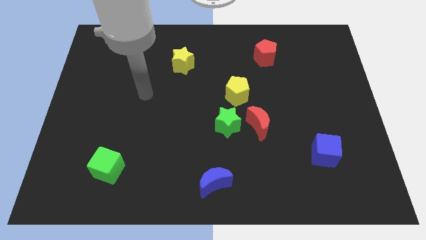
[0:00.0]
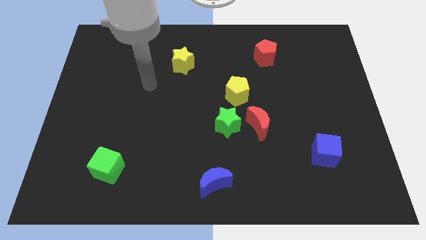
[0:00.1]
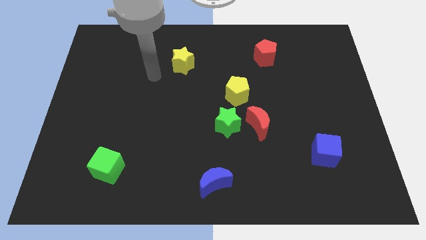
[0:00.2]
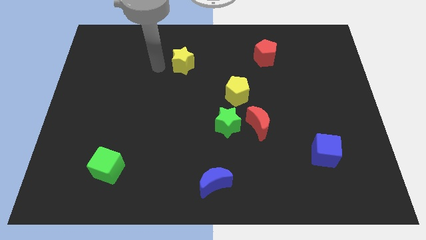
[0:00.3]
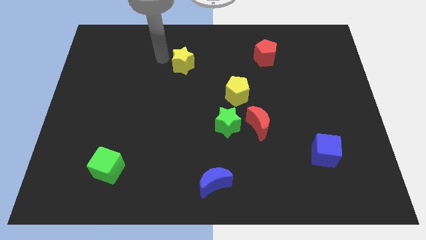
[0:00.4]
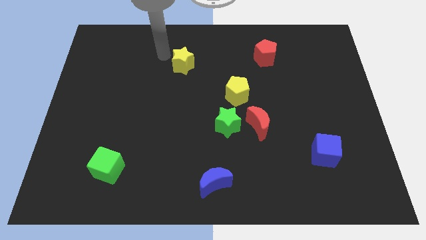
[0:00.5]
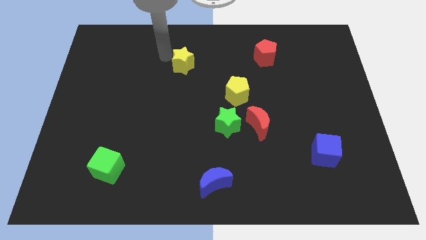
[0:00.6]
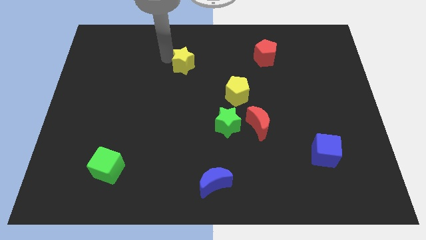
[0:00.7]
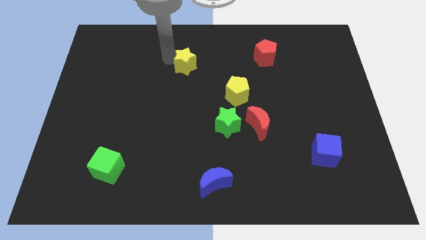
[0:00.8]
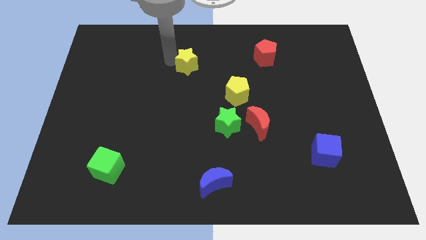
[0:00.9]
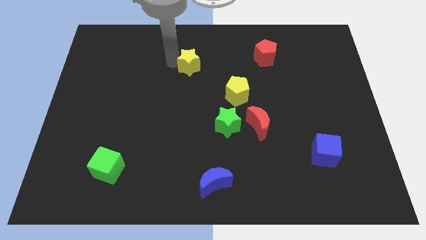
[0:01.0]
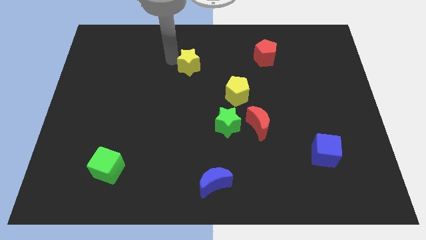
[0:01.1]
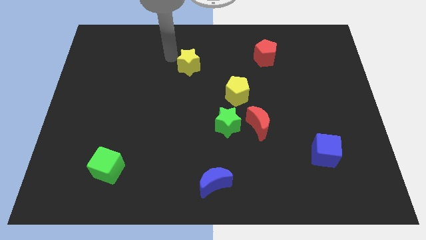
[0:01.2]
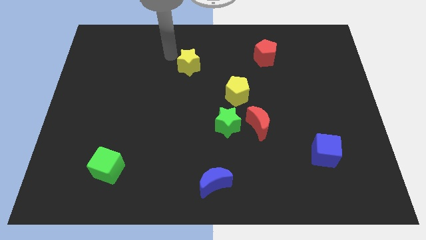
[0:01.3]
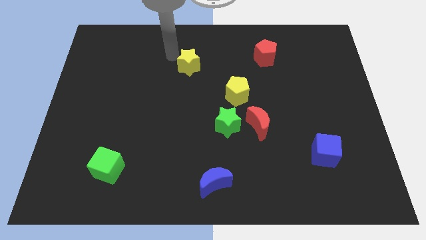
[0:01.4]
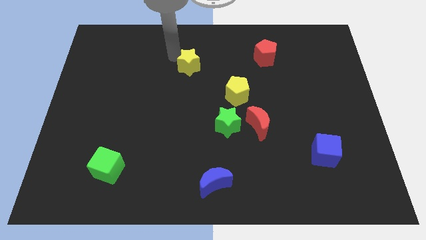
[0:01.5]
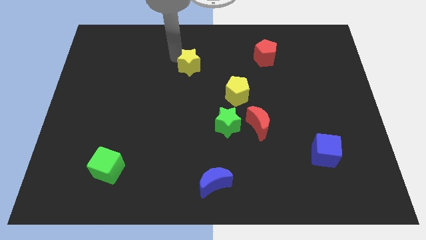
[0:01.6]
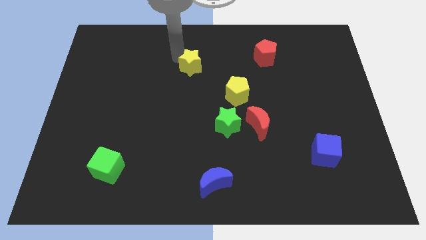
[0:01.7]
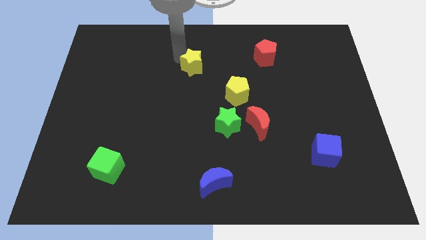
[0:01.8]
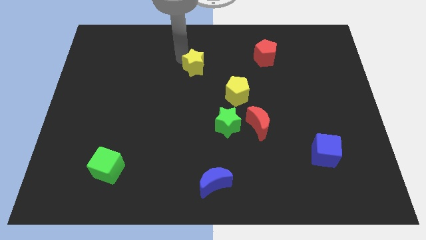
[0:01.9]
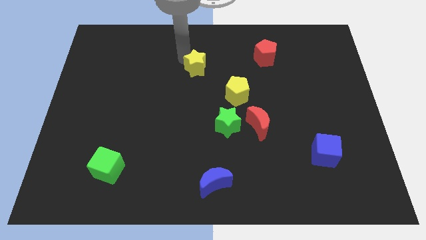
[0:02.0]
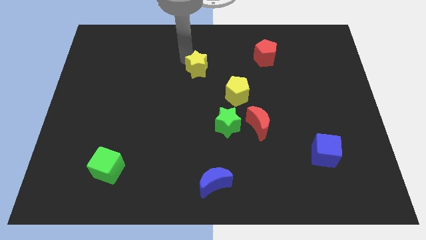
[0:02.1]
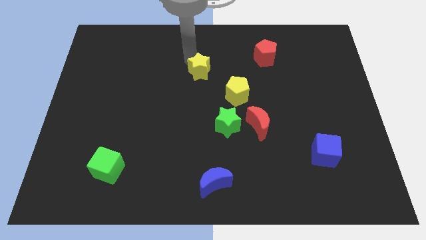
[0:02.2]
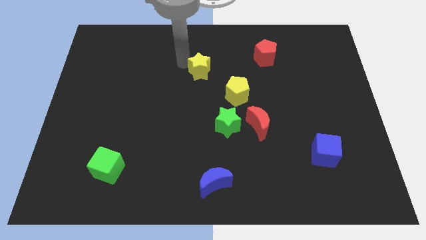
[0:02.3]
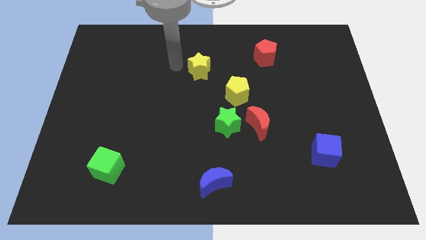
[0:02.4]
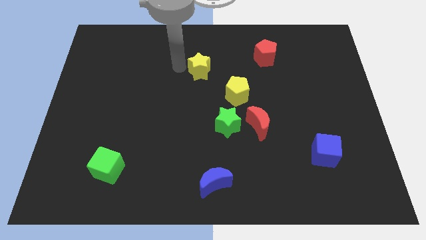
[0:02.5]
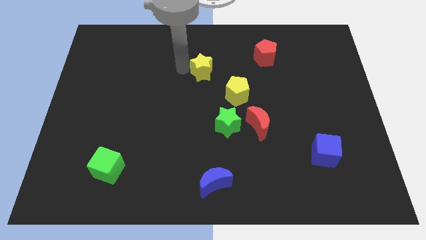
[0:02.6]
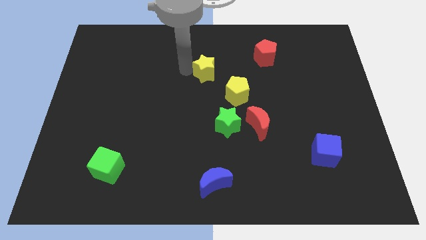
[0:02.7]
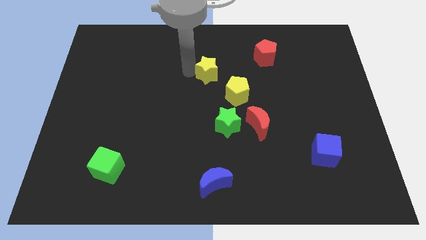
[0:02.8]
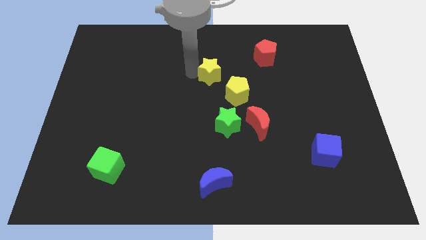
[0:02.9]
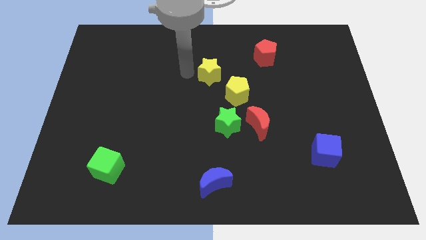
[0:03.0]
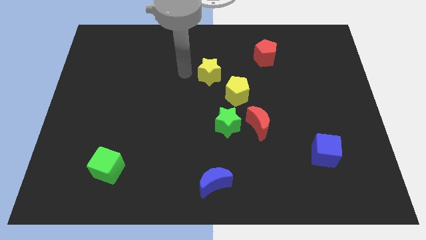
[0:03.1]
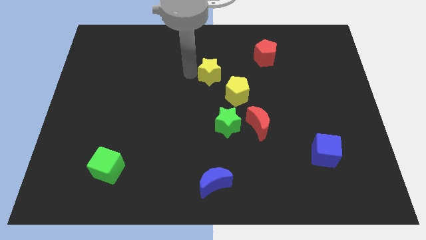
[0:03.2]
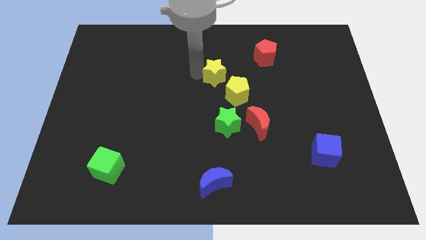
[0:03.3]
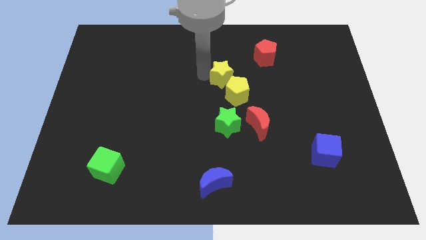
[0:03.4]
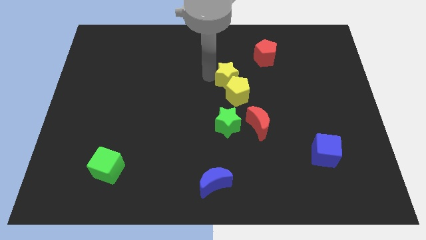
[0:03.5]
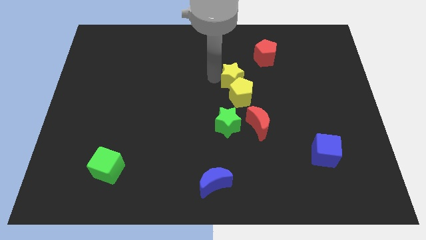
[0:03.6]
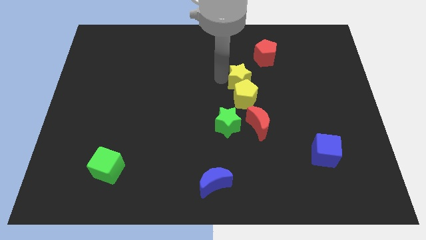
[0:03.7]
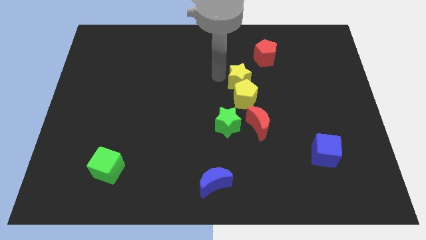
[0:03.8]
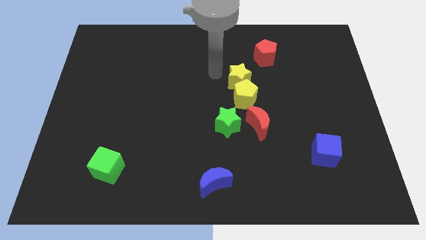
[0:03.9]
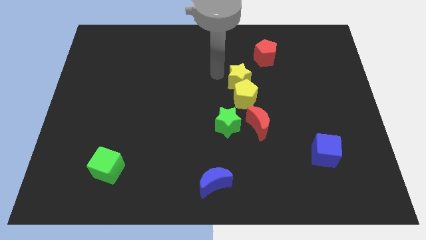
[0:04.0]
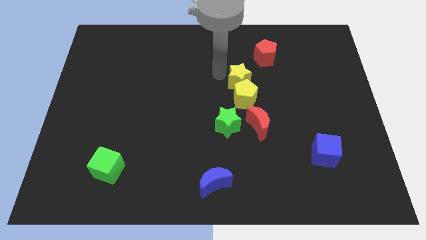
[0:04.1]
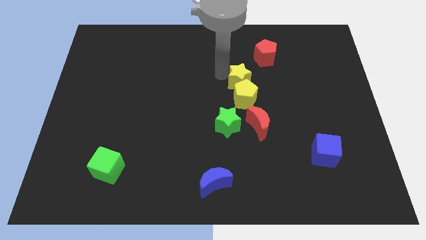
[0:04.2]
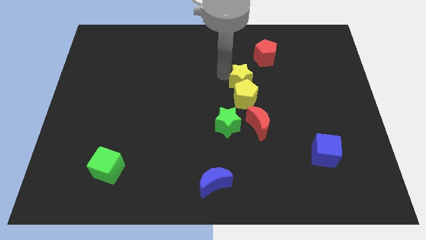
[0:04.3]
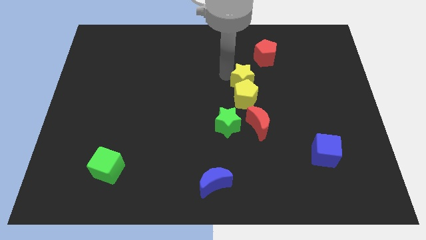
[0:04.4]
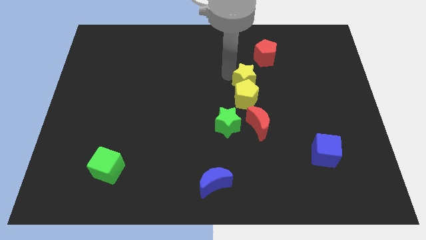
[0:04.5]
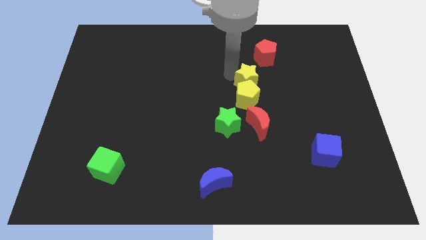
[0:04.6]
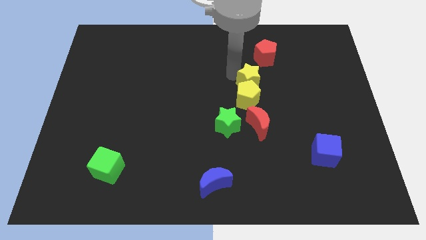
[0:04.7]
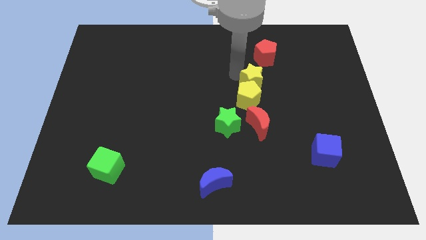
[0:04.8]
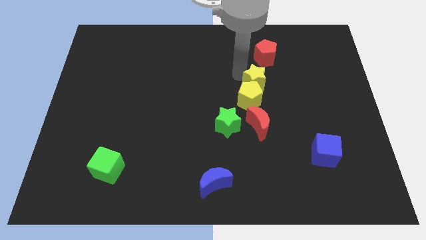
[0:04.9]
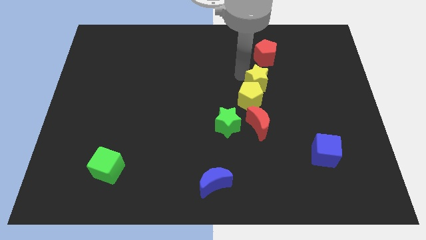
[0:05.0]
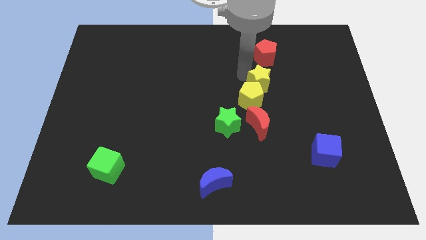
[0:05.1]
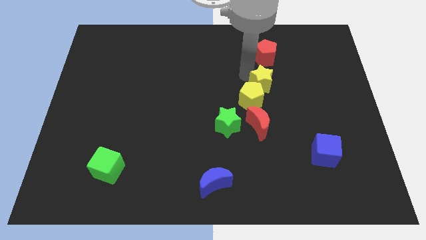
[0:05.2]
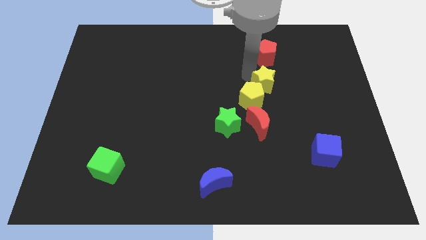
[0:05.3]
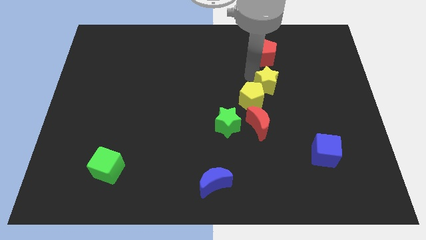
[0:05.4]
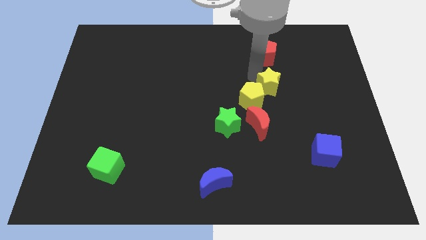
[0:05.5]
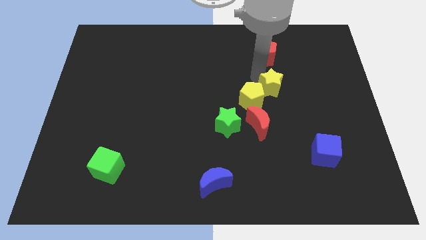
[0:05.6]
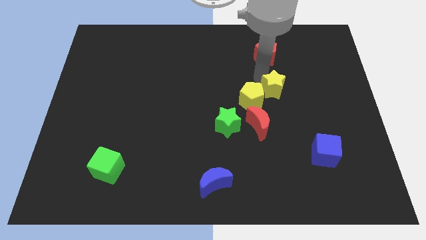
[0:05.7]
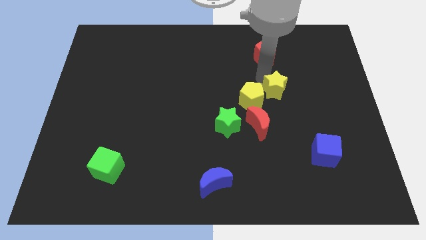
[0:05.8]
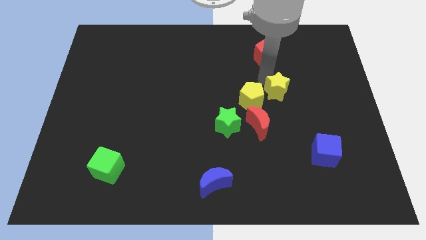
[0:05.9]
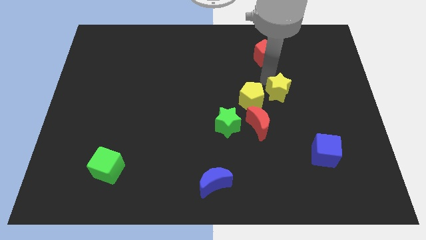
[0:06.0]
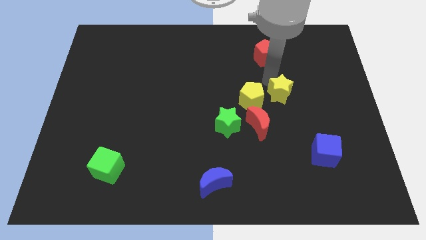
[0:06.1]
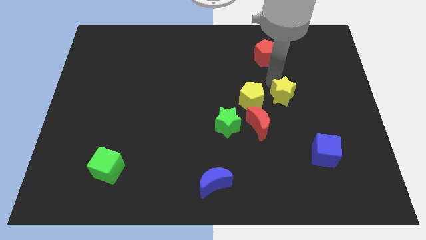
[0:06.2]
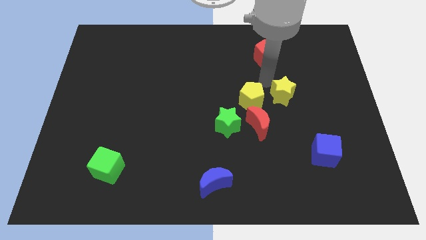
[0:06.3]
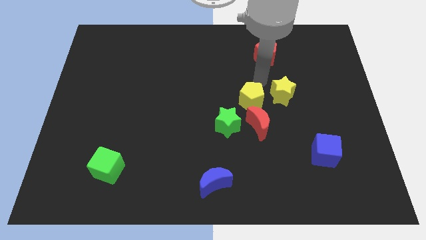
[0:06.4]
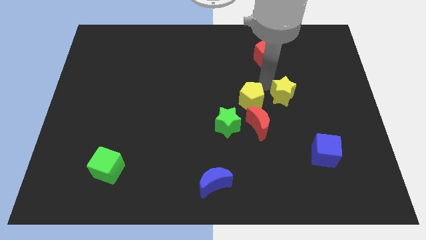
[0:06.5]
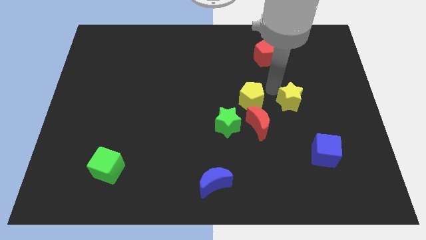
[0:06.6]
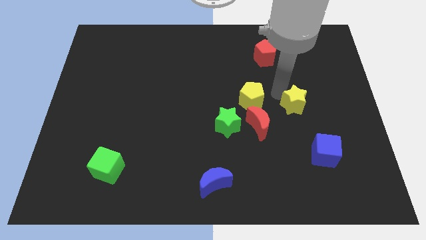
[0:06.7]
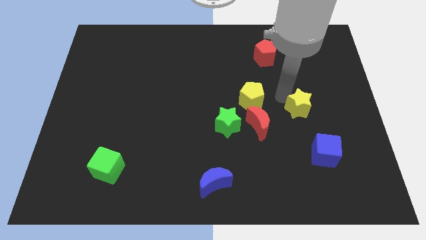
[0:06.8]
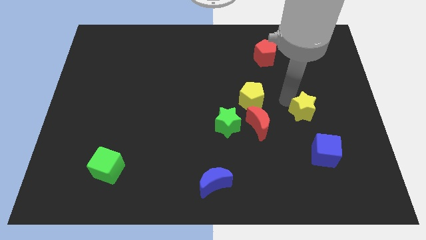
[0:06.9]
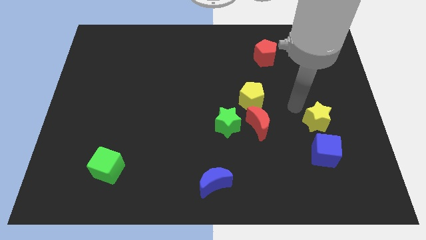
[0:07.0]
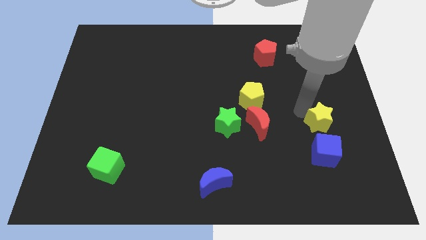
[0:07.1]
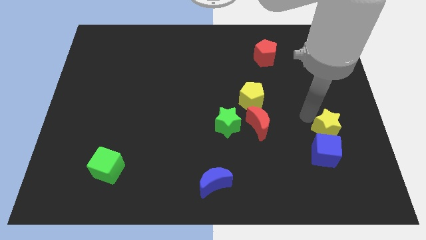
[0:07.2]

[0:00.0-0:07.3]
put the yellow star to the top right side of the blue cube
